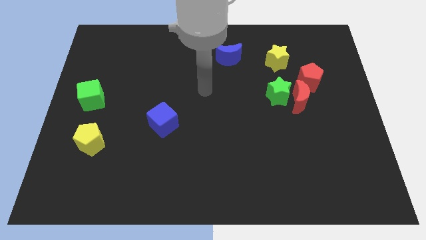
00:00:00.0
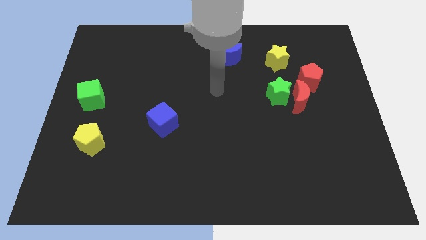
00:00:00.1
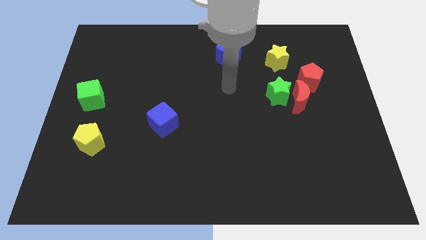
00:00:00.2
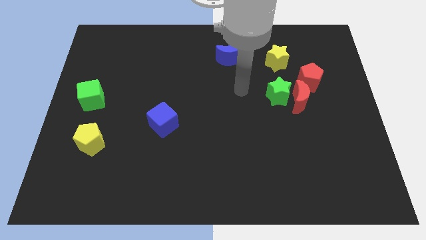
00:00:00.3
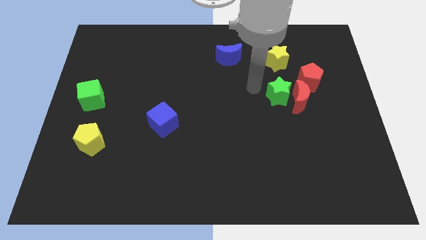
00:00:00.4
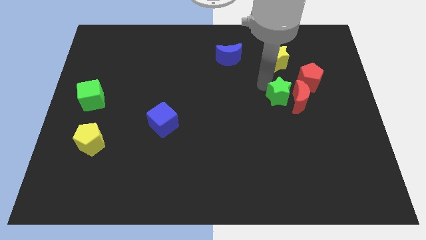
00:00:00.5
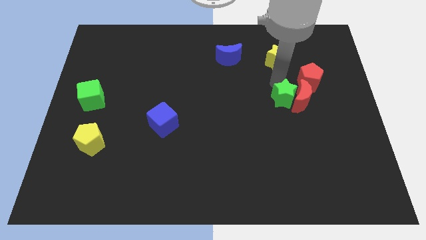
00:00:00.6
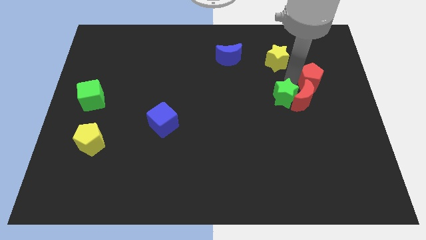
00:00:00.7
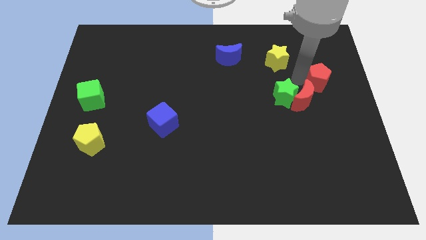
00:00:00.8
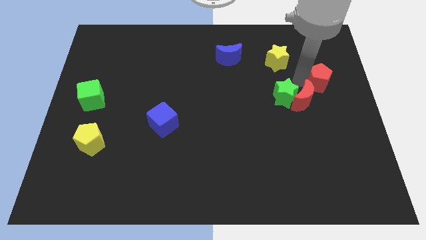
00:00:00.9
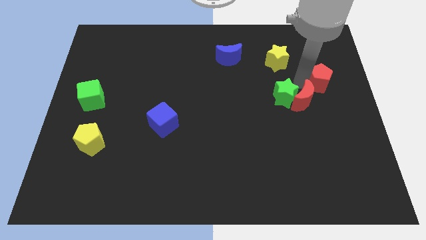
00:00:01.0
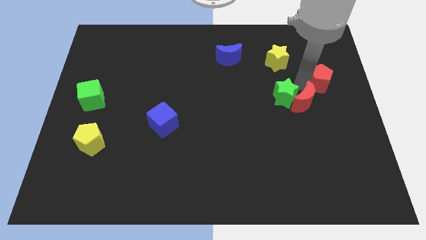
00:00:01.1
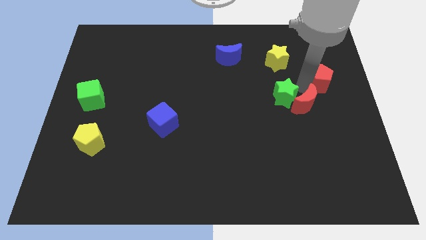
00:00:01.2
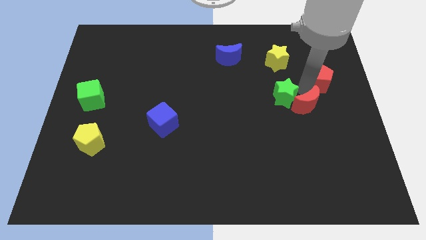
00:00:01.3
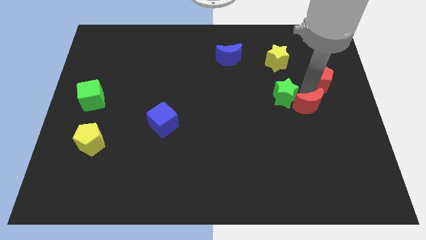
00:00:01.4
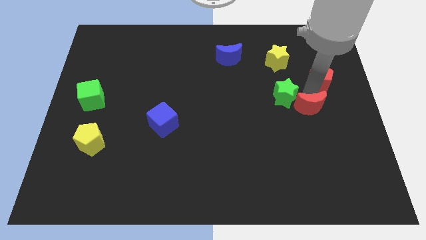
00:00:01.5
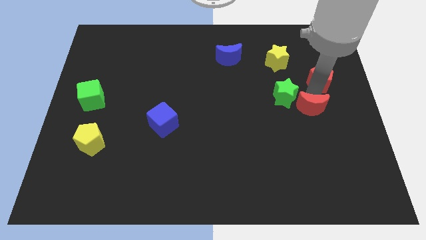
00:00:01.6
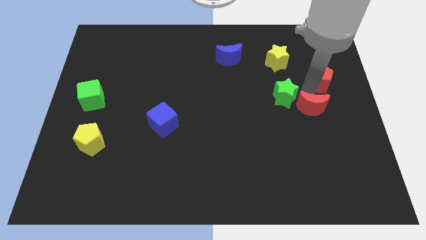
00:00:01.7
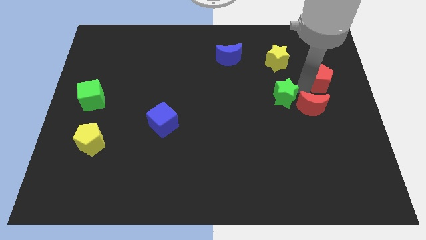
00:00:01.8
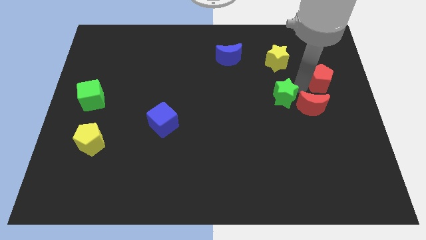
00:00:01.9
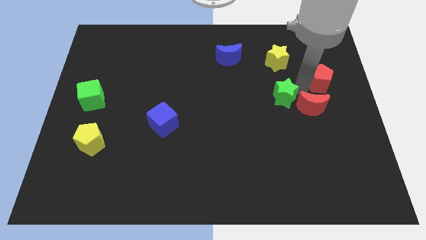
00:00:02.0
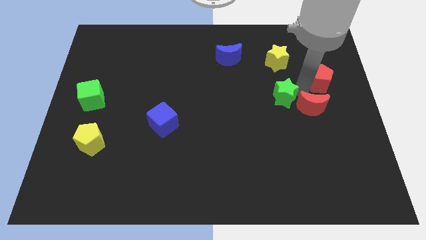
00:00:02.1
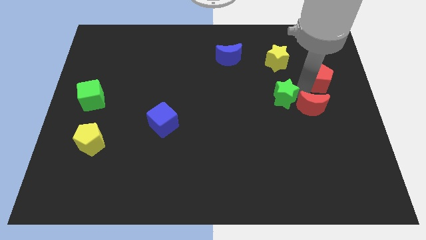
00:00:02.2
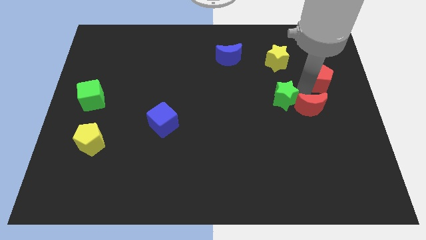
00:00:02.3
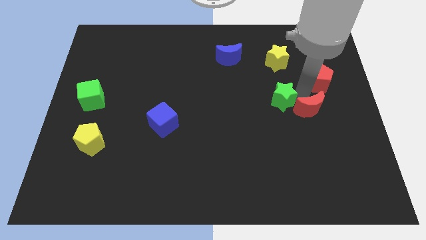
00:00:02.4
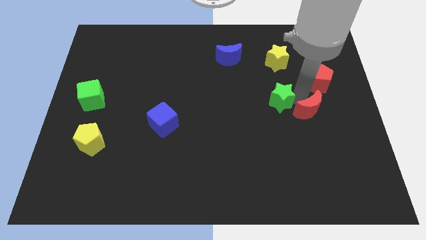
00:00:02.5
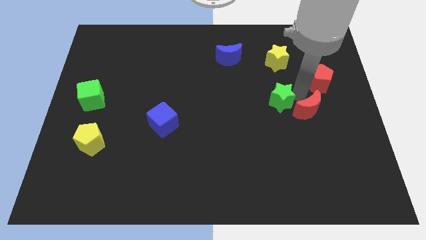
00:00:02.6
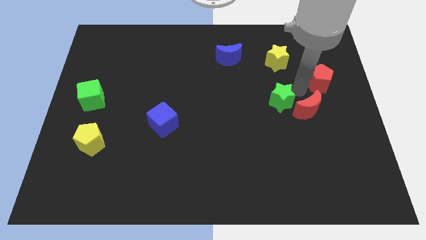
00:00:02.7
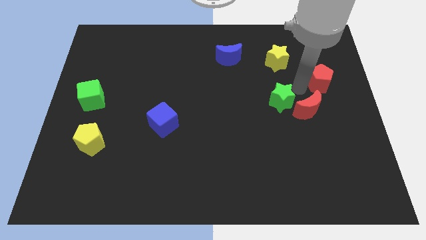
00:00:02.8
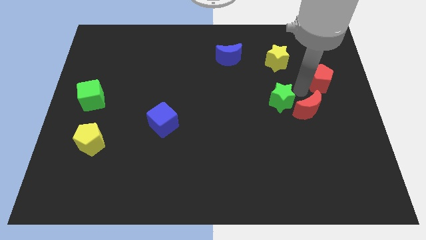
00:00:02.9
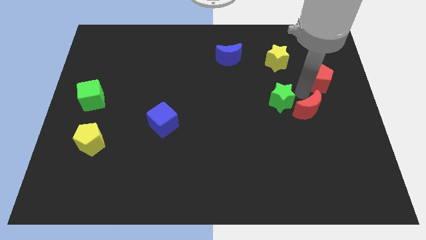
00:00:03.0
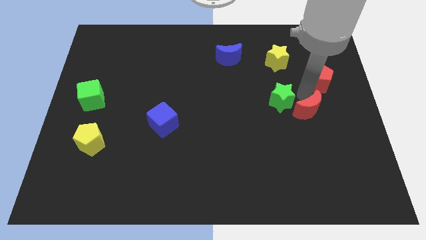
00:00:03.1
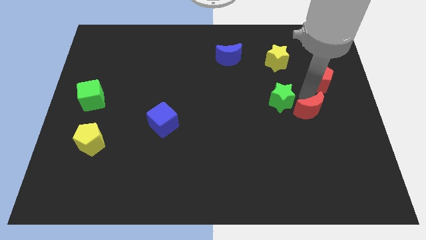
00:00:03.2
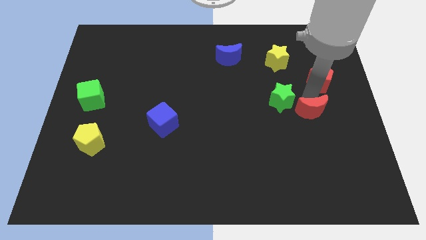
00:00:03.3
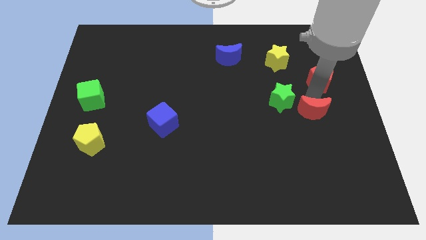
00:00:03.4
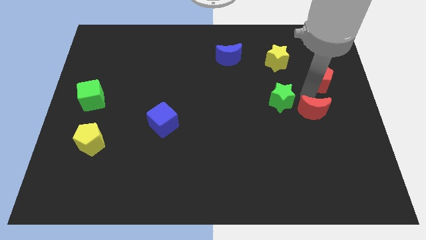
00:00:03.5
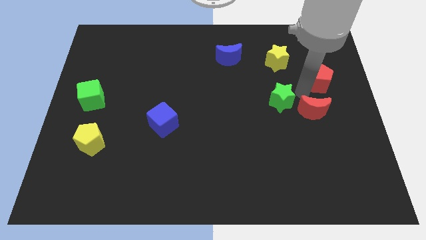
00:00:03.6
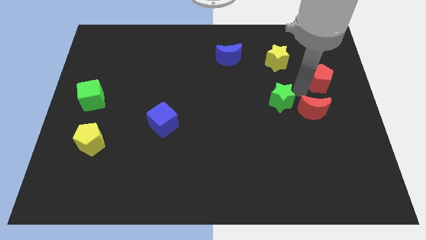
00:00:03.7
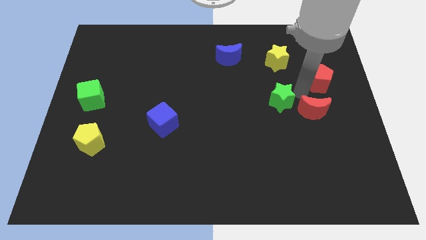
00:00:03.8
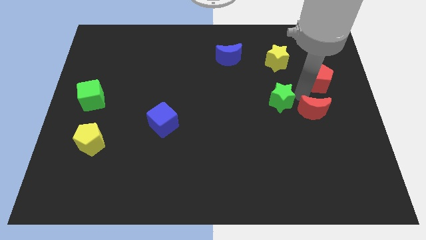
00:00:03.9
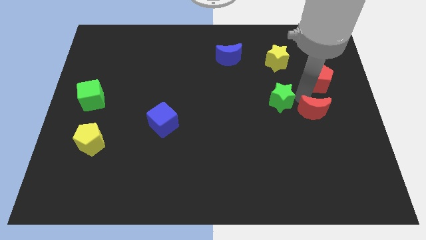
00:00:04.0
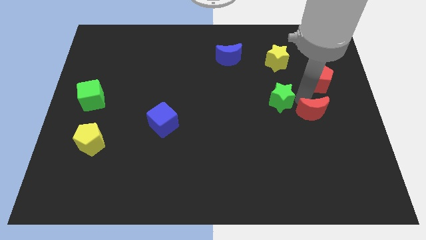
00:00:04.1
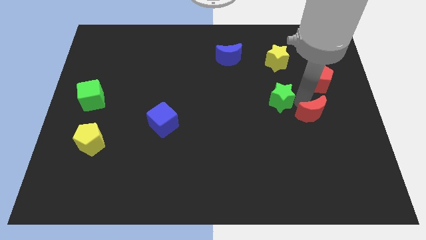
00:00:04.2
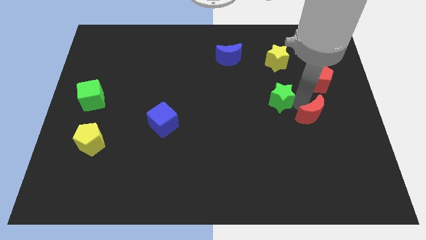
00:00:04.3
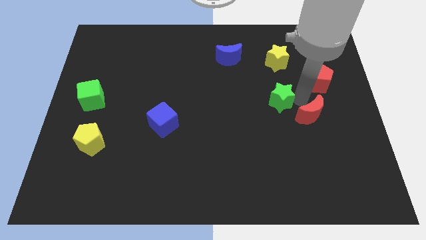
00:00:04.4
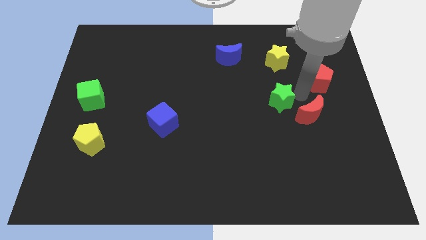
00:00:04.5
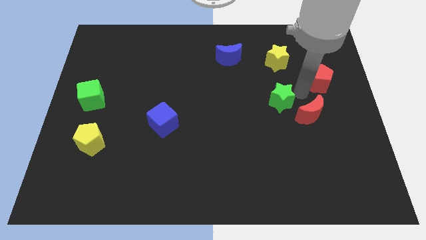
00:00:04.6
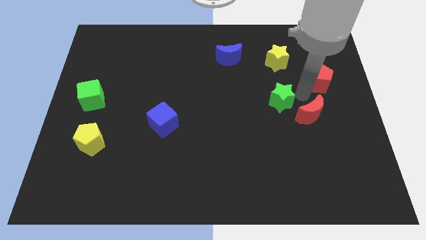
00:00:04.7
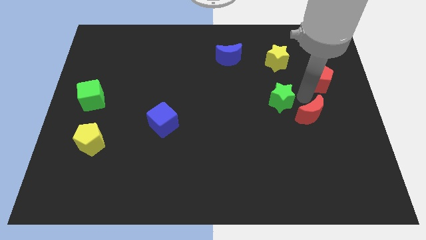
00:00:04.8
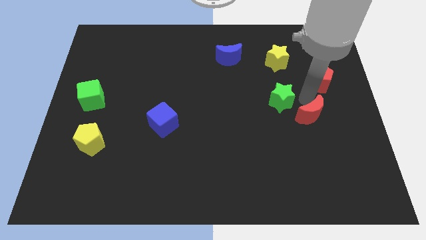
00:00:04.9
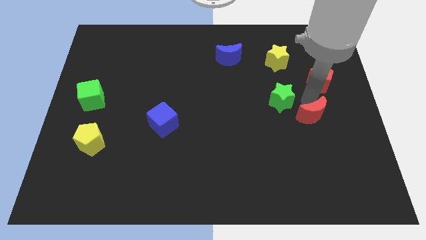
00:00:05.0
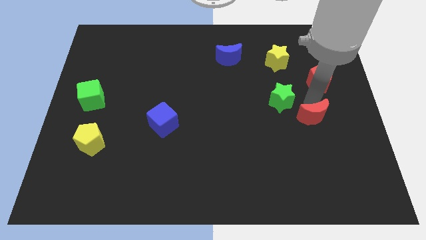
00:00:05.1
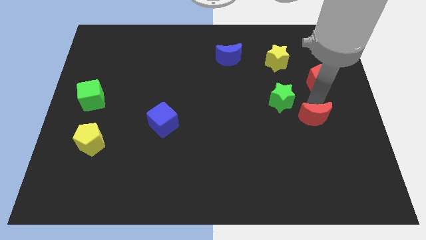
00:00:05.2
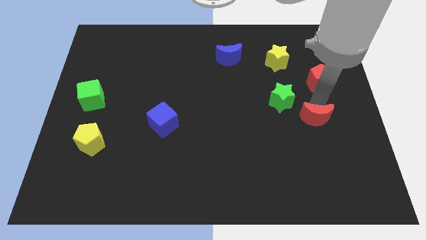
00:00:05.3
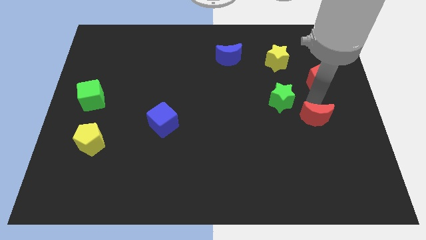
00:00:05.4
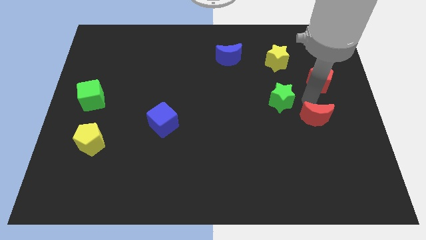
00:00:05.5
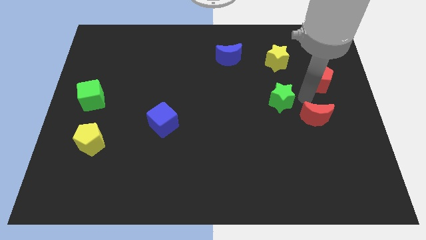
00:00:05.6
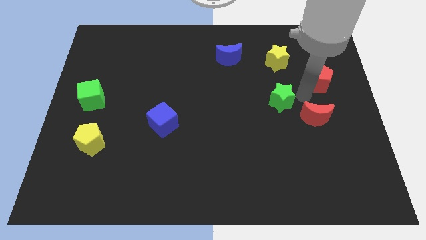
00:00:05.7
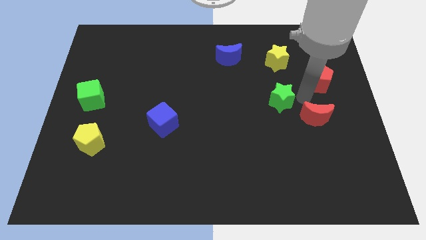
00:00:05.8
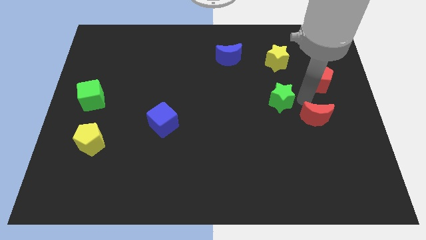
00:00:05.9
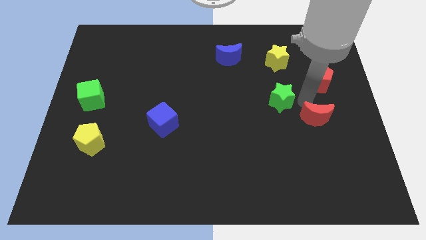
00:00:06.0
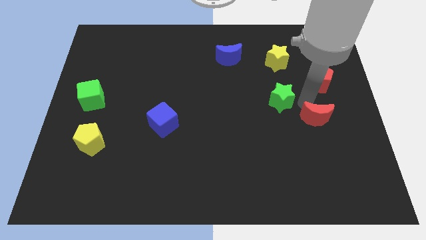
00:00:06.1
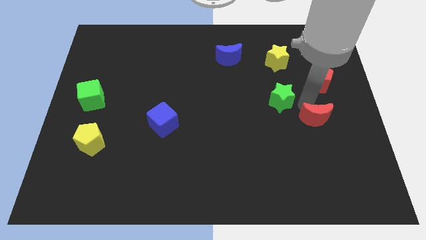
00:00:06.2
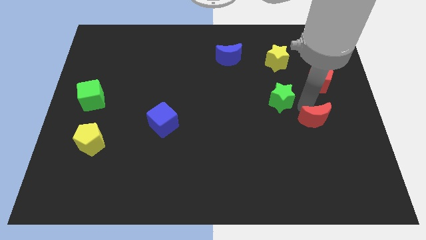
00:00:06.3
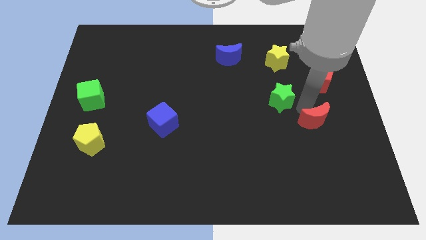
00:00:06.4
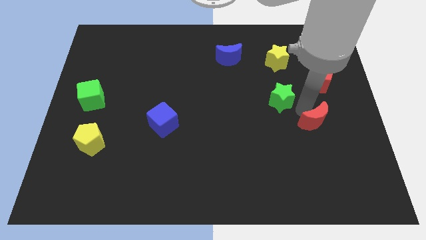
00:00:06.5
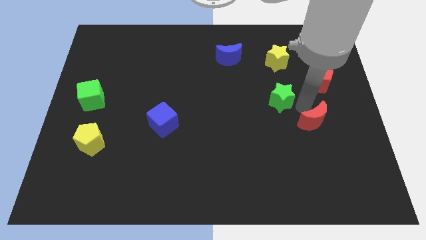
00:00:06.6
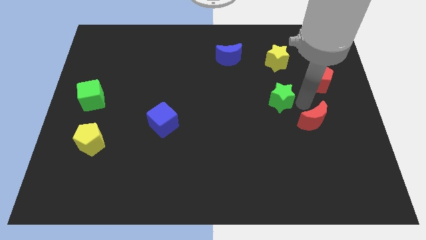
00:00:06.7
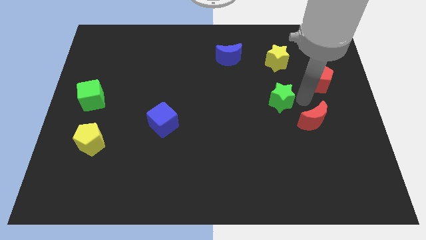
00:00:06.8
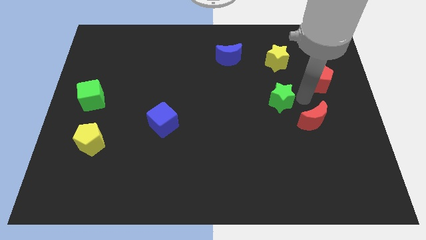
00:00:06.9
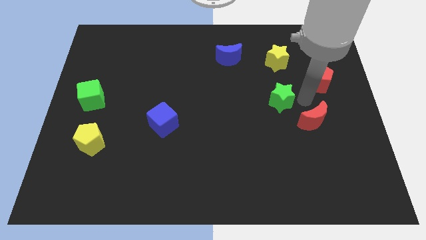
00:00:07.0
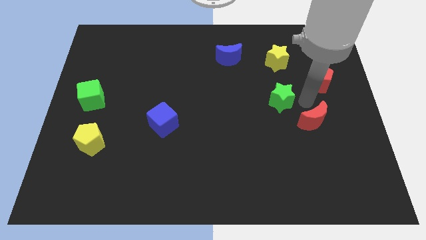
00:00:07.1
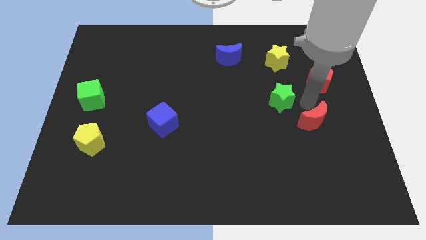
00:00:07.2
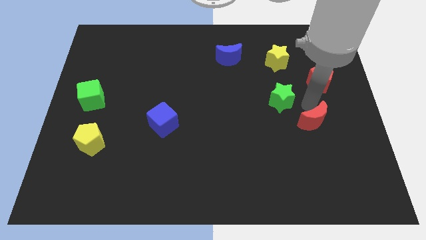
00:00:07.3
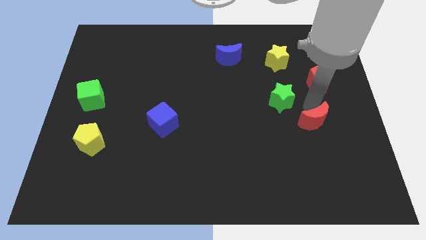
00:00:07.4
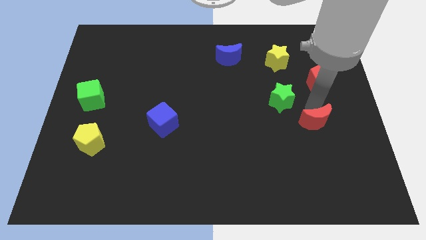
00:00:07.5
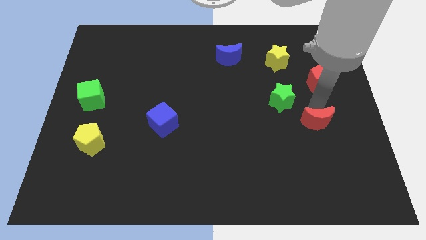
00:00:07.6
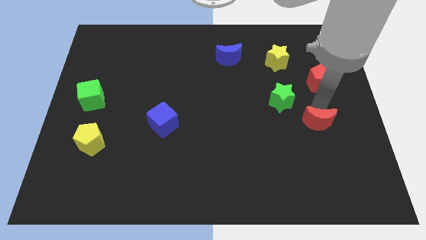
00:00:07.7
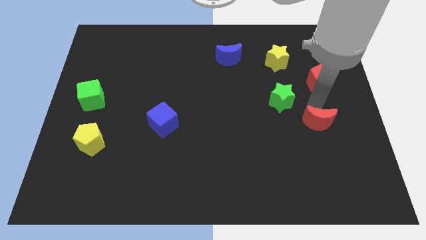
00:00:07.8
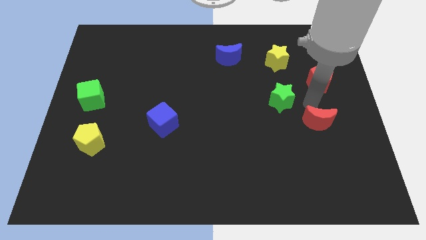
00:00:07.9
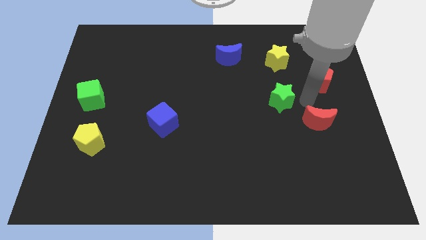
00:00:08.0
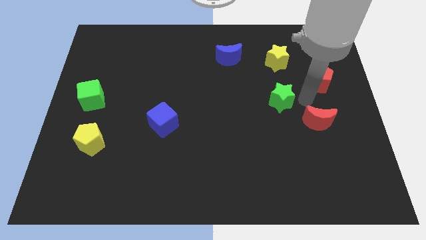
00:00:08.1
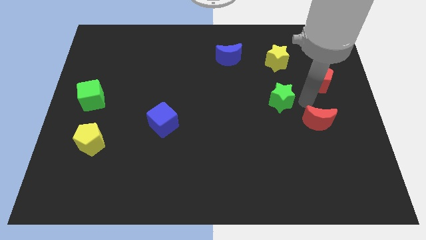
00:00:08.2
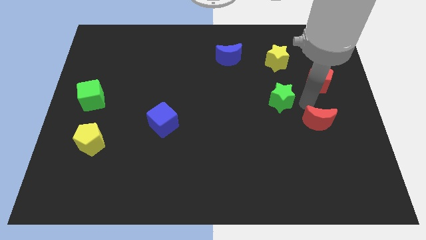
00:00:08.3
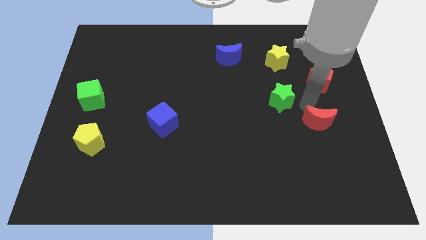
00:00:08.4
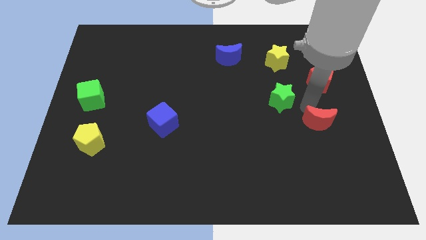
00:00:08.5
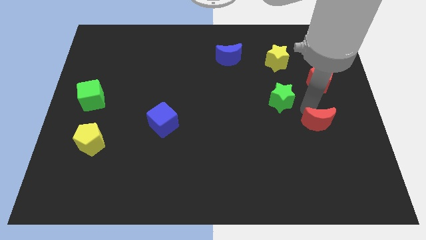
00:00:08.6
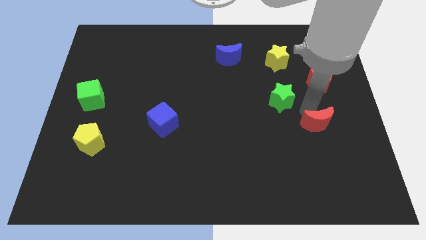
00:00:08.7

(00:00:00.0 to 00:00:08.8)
move the red moon away from the green star and red pentagon

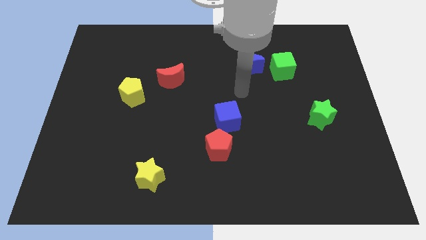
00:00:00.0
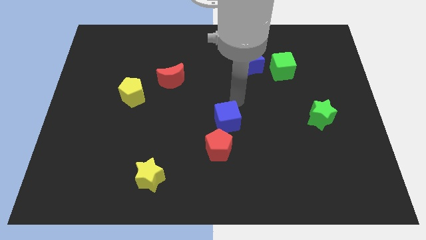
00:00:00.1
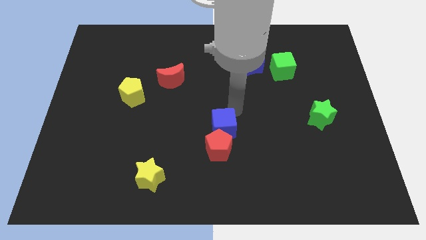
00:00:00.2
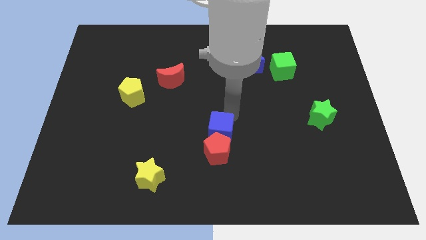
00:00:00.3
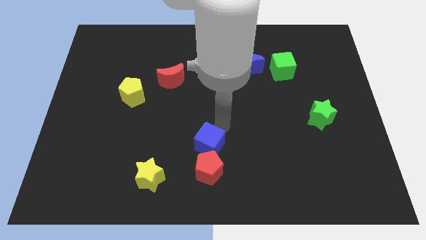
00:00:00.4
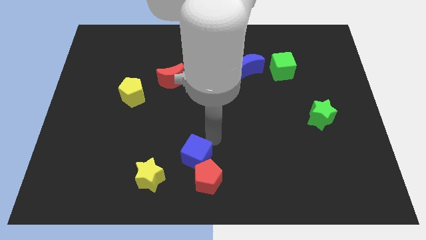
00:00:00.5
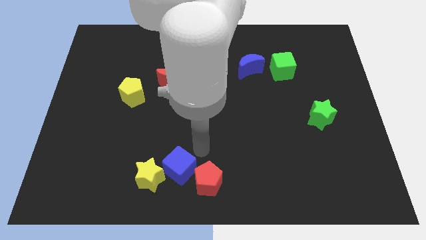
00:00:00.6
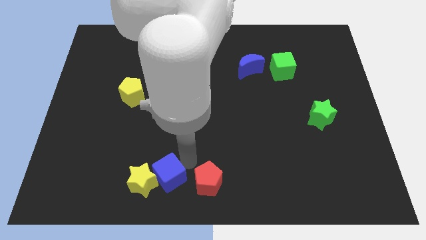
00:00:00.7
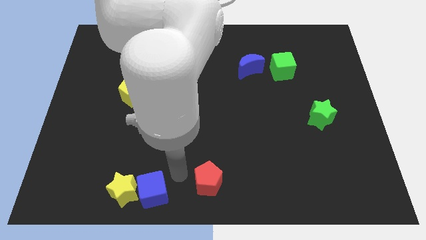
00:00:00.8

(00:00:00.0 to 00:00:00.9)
pull the red pentagon apart from the blue cube
